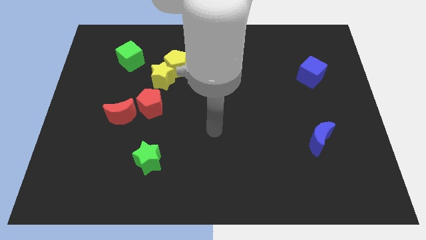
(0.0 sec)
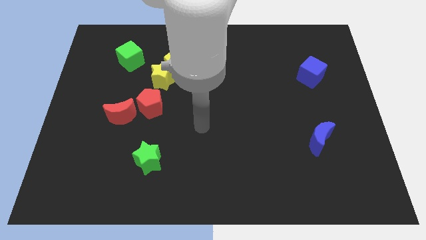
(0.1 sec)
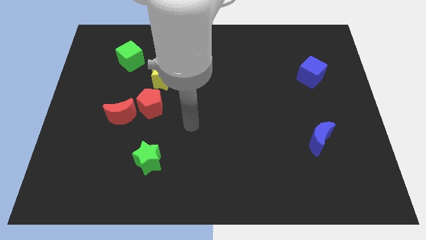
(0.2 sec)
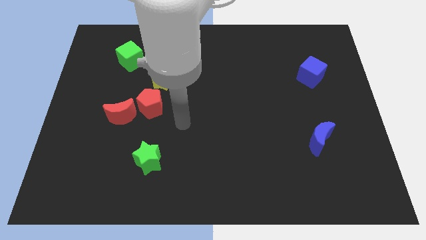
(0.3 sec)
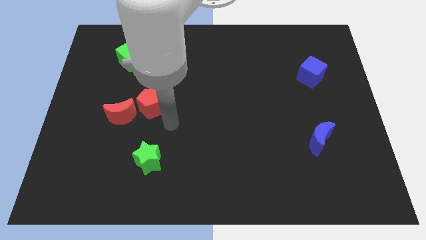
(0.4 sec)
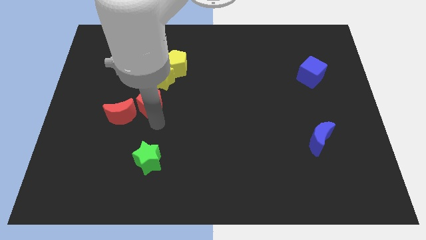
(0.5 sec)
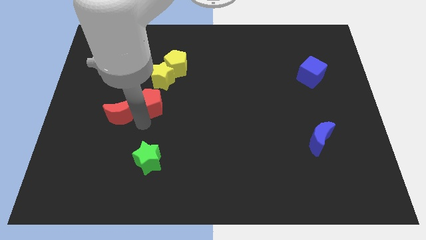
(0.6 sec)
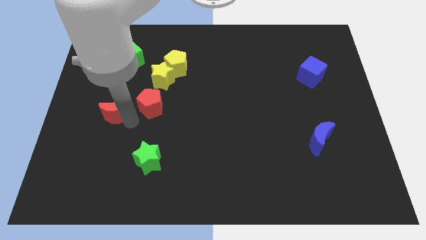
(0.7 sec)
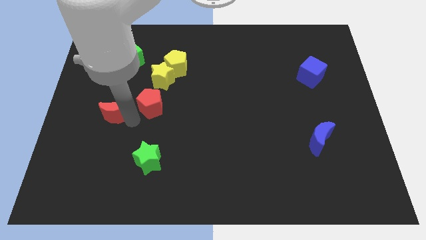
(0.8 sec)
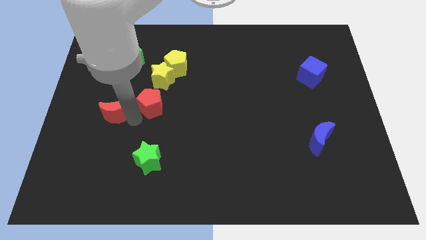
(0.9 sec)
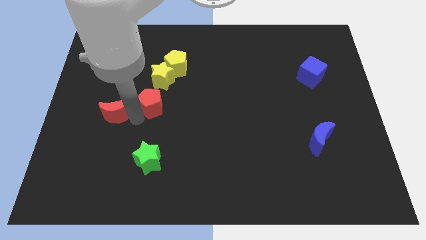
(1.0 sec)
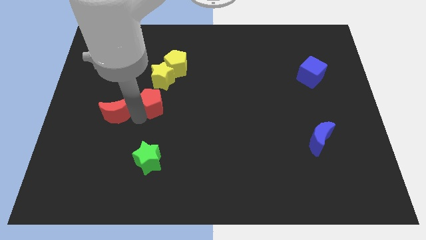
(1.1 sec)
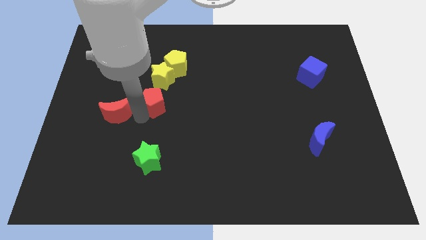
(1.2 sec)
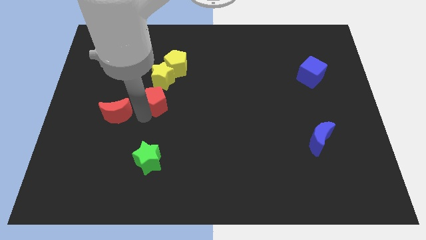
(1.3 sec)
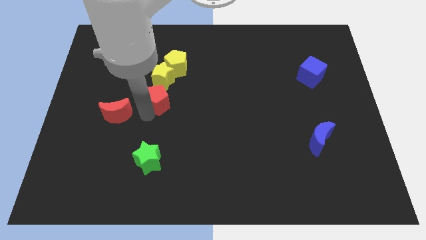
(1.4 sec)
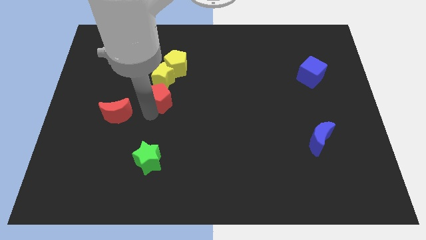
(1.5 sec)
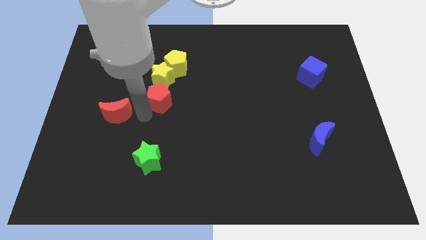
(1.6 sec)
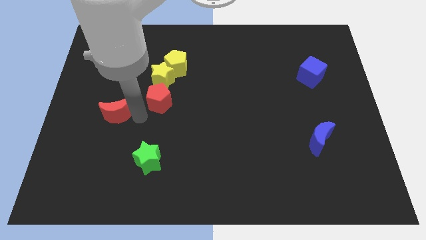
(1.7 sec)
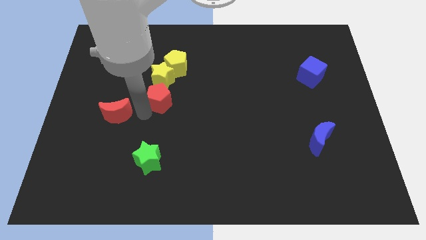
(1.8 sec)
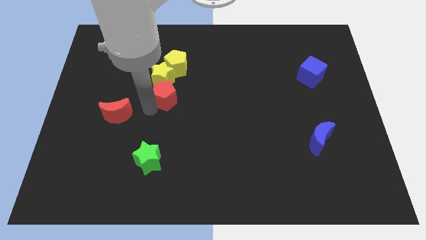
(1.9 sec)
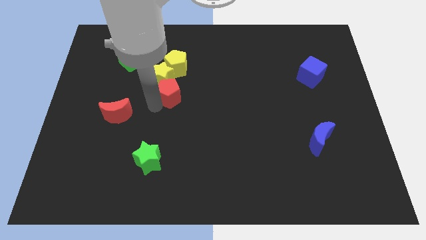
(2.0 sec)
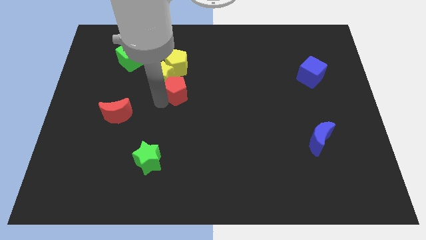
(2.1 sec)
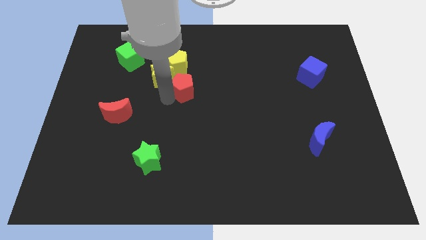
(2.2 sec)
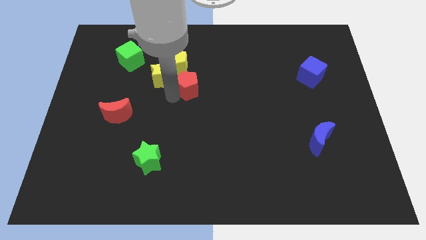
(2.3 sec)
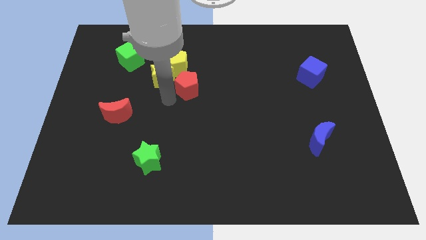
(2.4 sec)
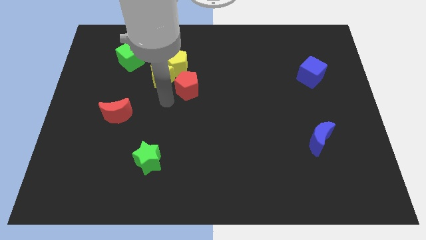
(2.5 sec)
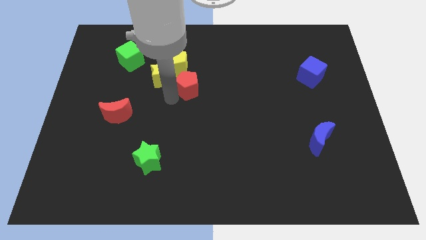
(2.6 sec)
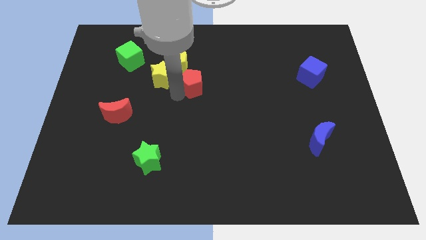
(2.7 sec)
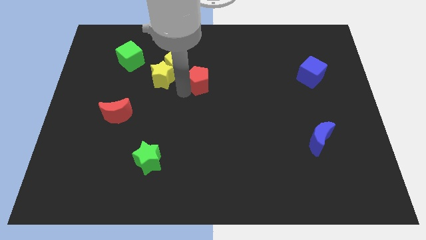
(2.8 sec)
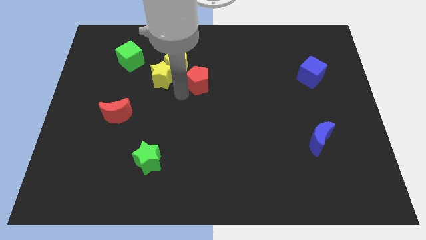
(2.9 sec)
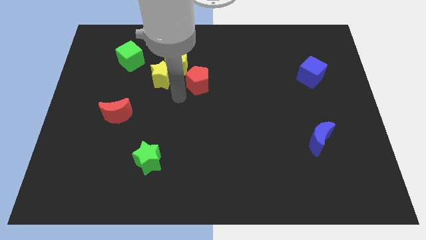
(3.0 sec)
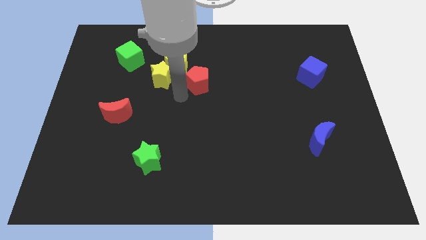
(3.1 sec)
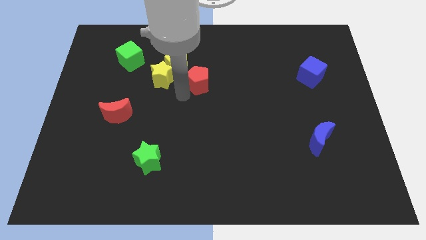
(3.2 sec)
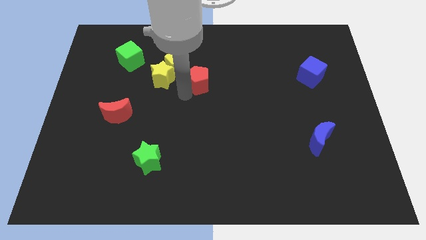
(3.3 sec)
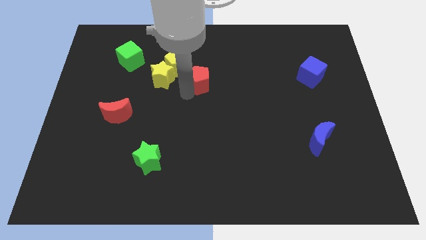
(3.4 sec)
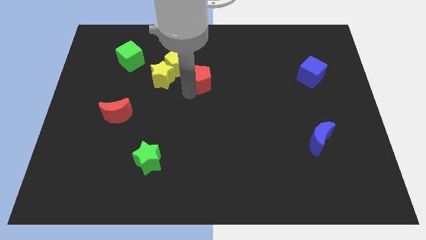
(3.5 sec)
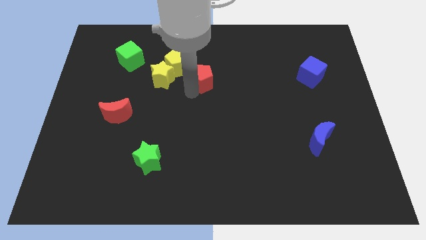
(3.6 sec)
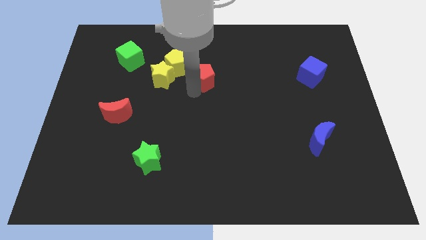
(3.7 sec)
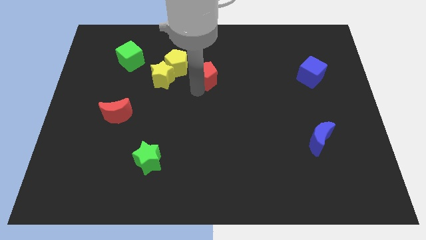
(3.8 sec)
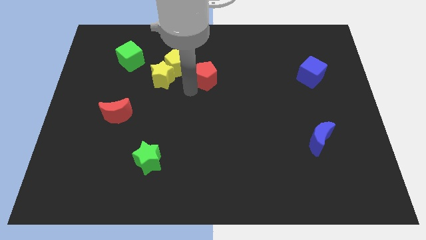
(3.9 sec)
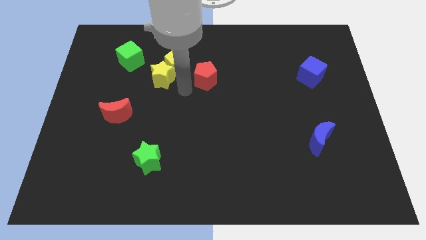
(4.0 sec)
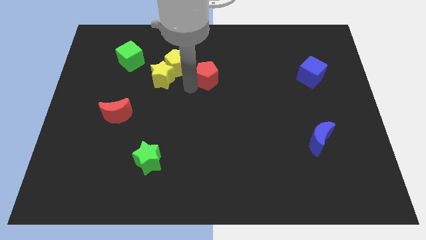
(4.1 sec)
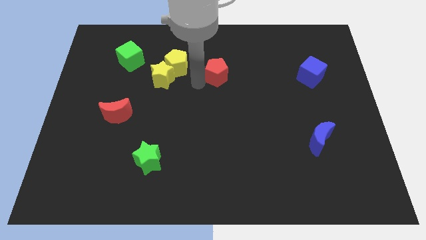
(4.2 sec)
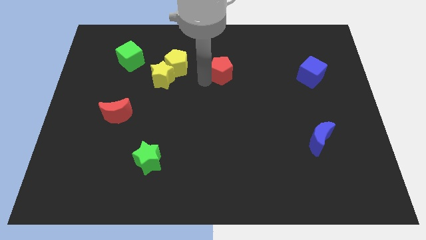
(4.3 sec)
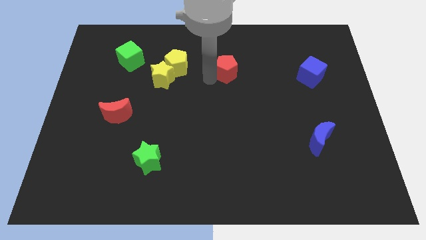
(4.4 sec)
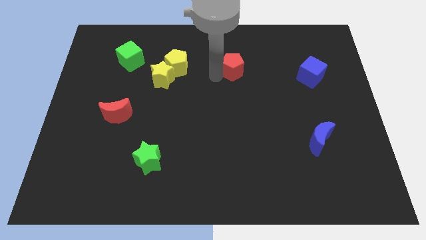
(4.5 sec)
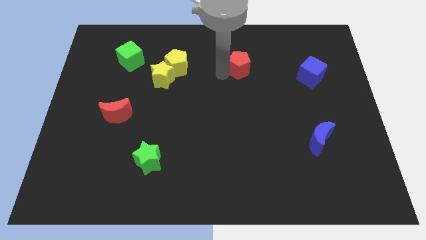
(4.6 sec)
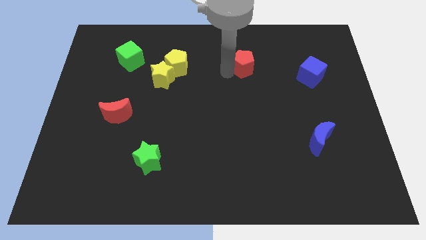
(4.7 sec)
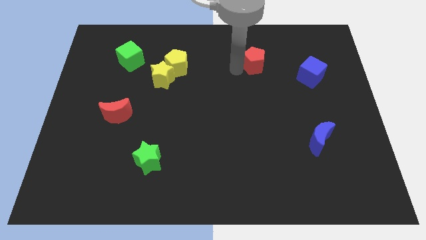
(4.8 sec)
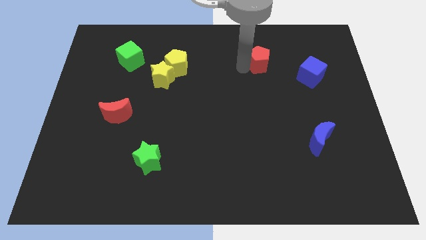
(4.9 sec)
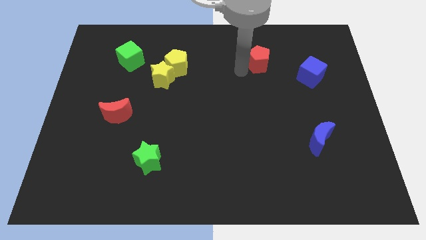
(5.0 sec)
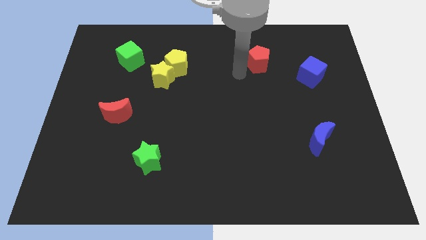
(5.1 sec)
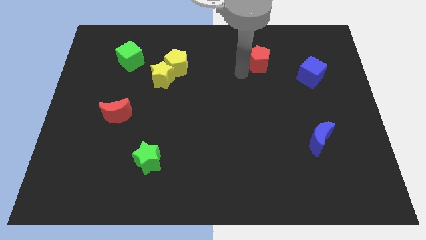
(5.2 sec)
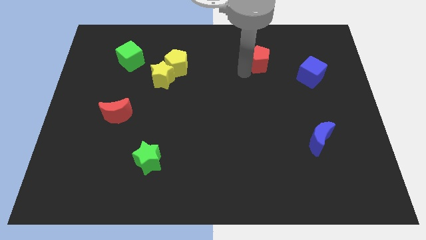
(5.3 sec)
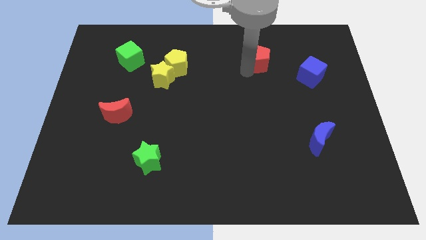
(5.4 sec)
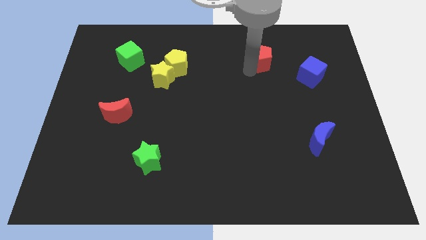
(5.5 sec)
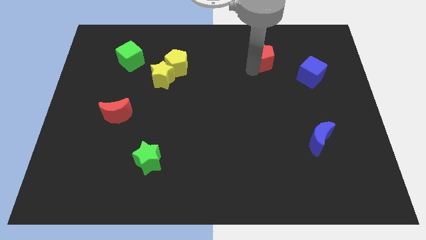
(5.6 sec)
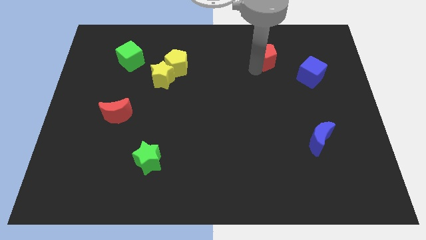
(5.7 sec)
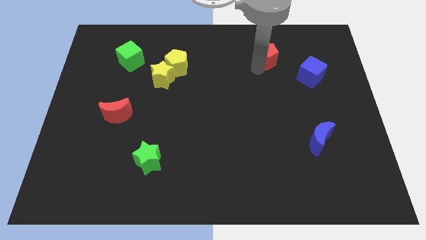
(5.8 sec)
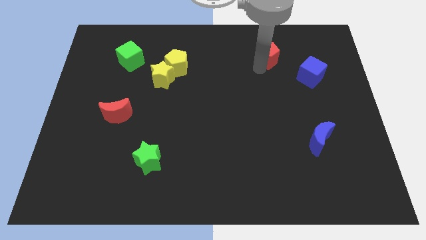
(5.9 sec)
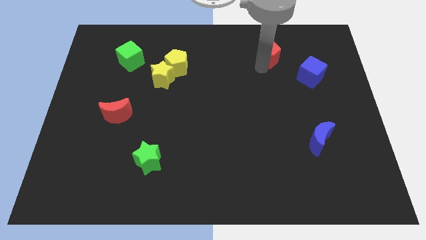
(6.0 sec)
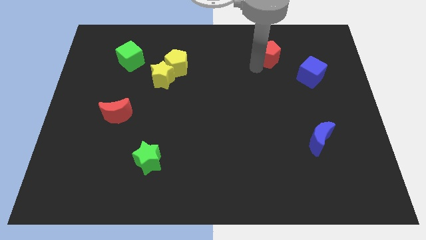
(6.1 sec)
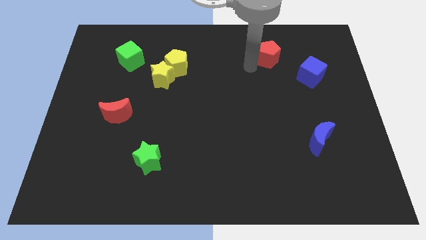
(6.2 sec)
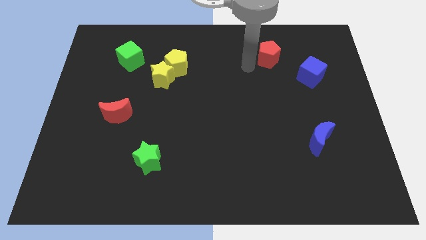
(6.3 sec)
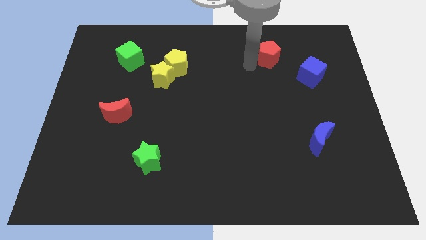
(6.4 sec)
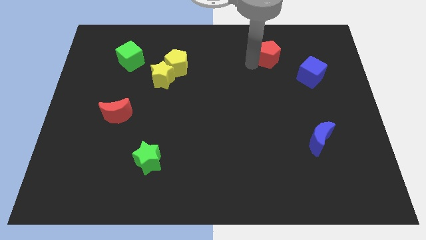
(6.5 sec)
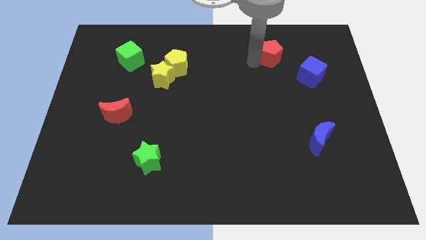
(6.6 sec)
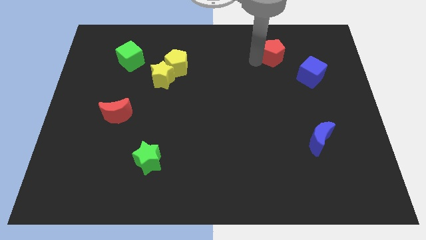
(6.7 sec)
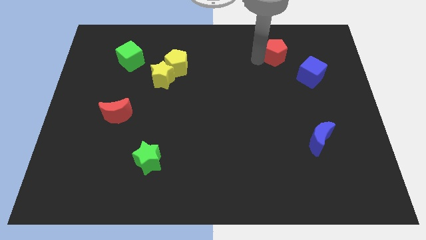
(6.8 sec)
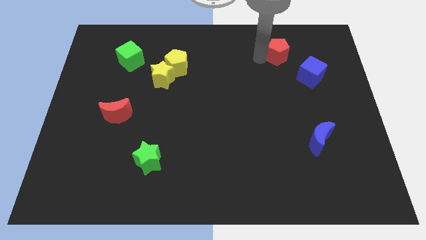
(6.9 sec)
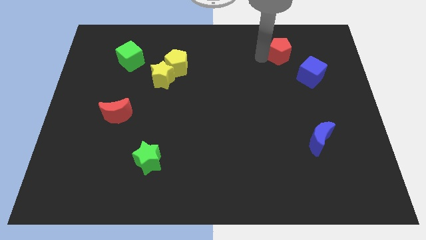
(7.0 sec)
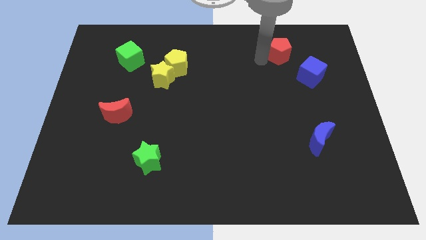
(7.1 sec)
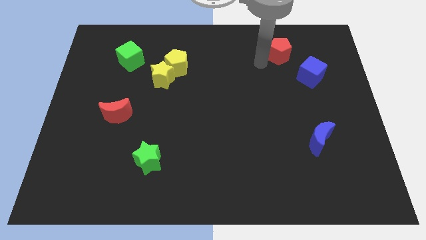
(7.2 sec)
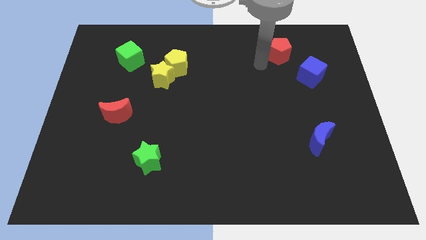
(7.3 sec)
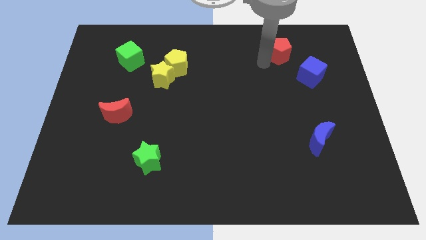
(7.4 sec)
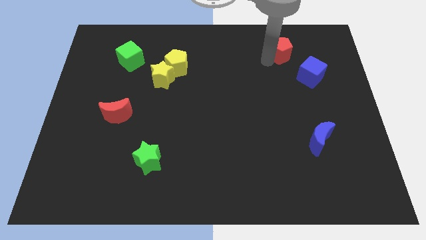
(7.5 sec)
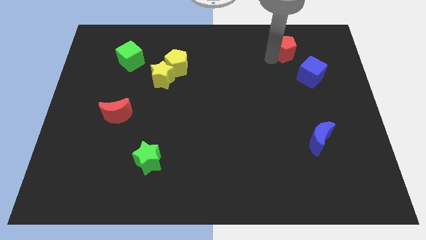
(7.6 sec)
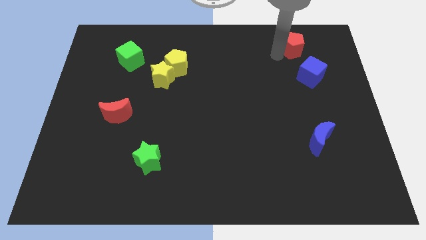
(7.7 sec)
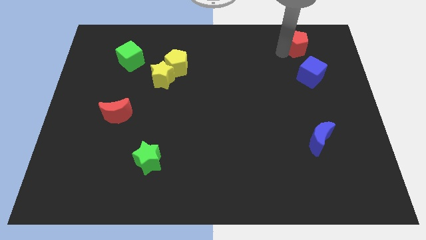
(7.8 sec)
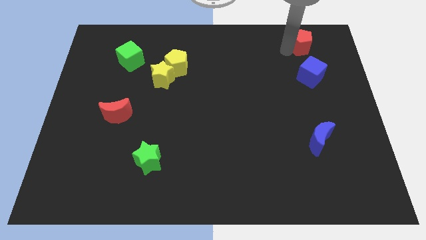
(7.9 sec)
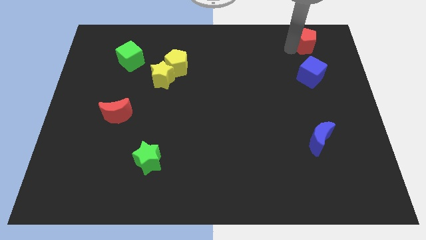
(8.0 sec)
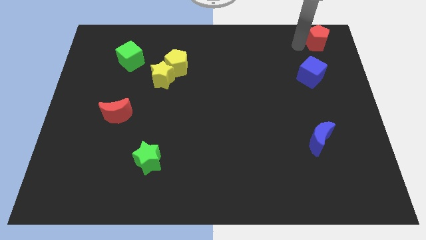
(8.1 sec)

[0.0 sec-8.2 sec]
slide the red pentagon to the top right corner
